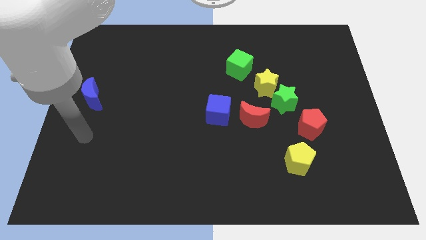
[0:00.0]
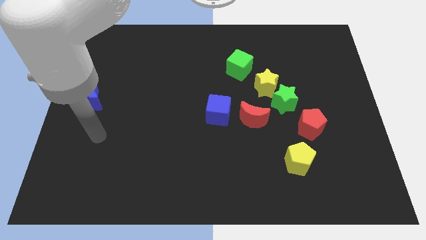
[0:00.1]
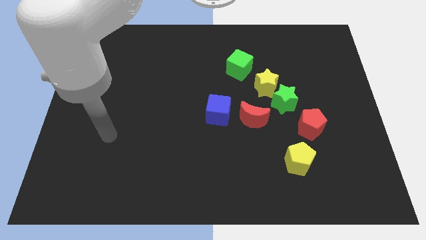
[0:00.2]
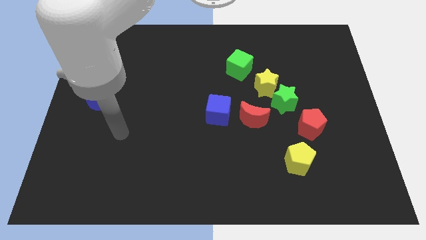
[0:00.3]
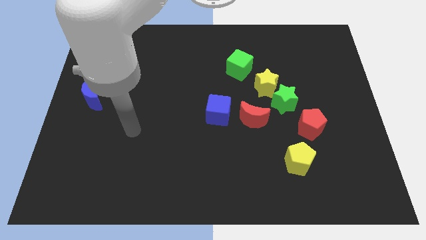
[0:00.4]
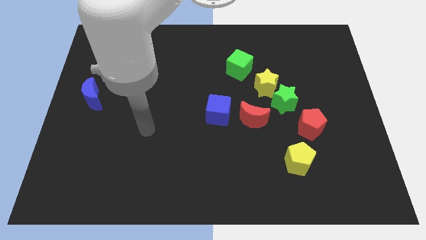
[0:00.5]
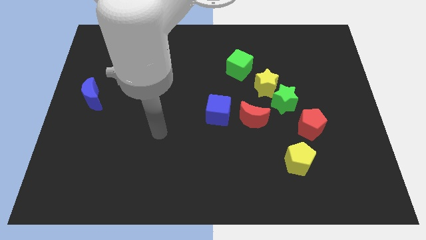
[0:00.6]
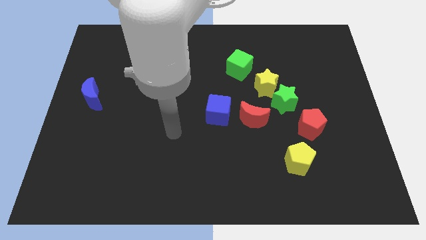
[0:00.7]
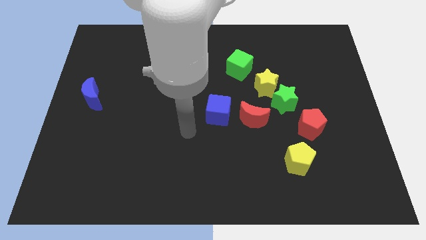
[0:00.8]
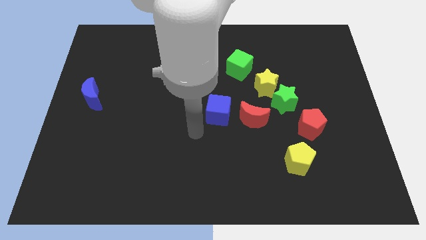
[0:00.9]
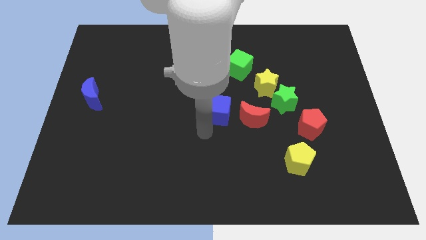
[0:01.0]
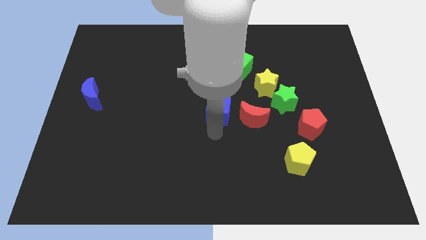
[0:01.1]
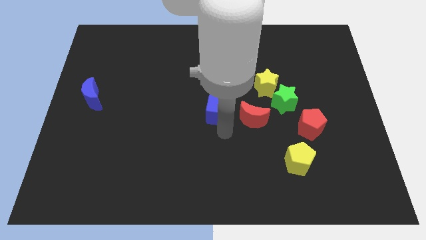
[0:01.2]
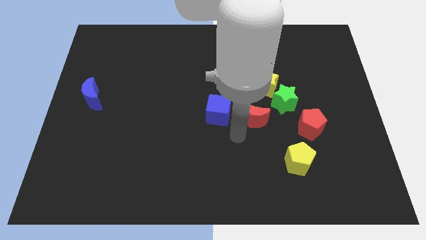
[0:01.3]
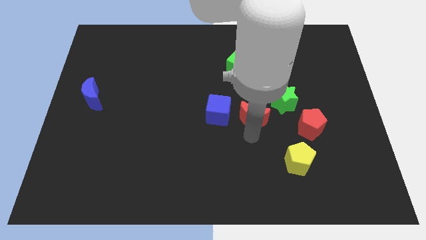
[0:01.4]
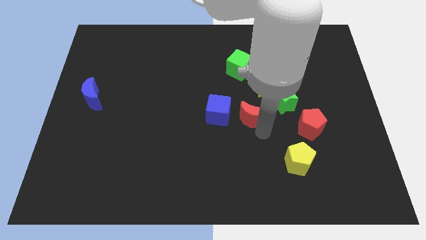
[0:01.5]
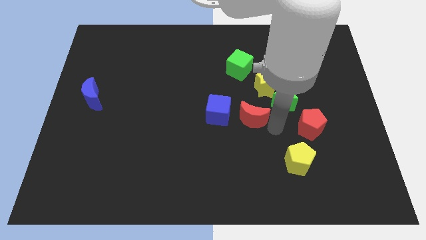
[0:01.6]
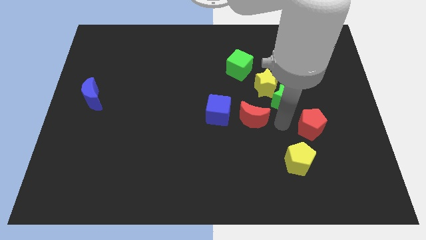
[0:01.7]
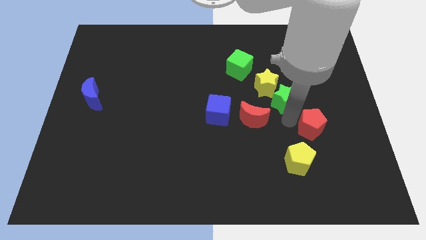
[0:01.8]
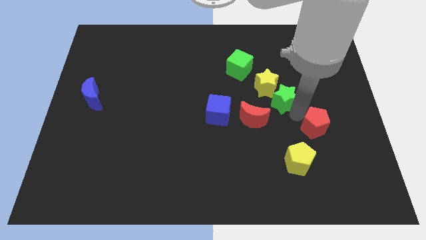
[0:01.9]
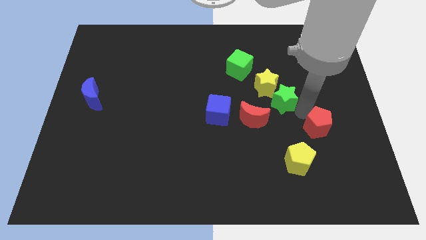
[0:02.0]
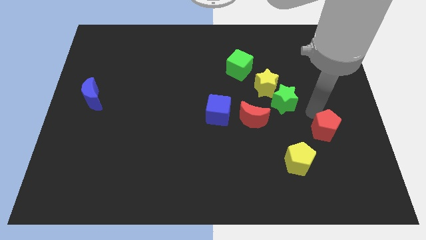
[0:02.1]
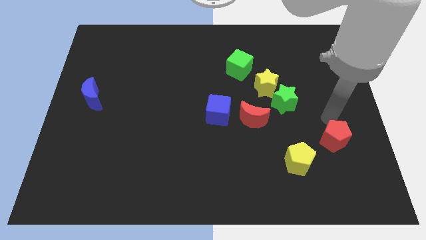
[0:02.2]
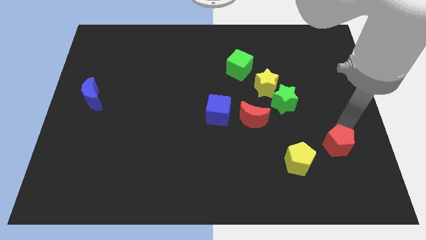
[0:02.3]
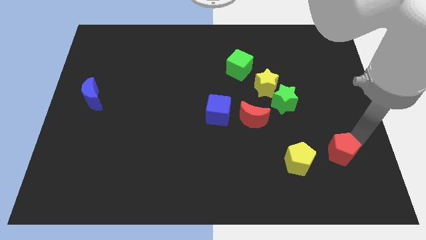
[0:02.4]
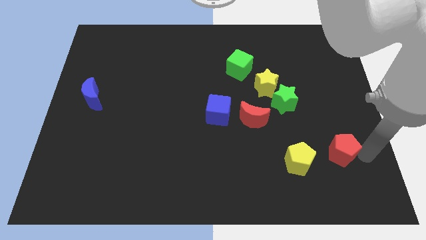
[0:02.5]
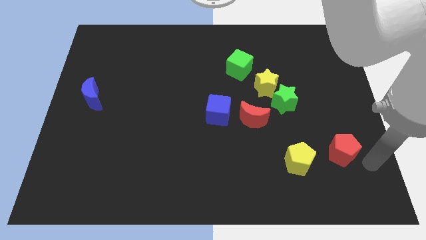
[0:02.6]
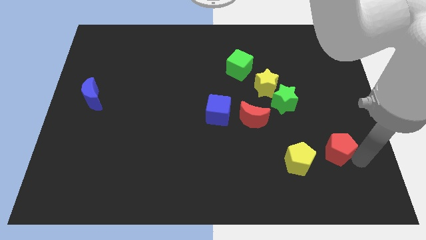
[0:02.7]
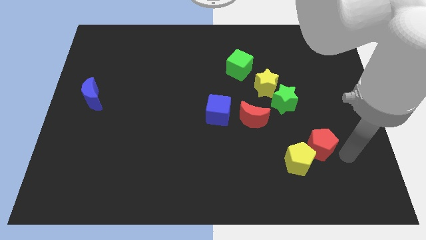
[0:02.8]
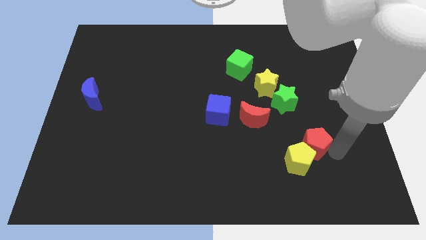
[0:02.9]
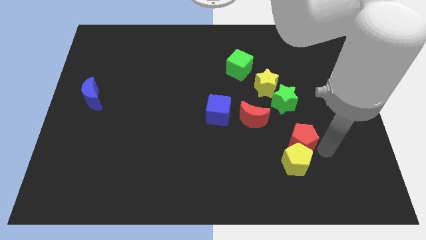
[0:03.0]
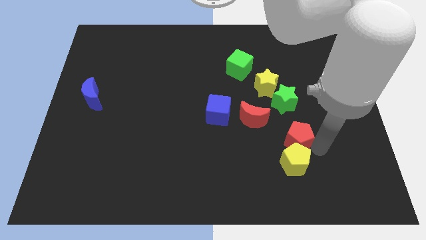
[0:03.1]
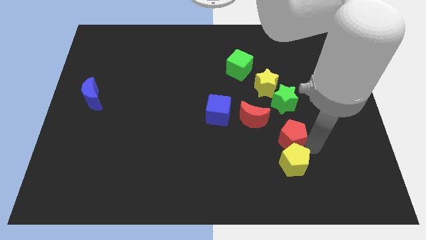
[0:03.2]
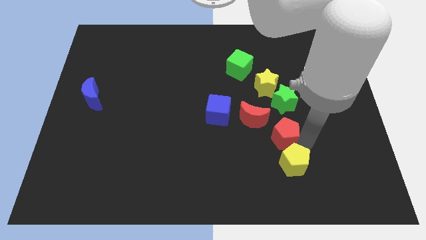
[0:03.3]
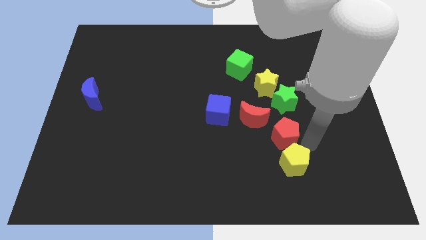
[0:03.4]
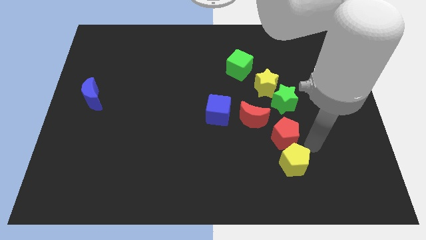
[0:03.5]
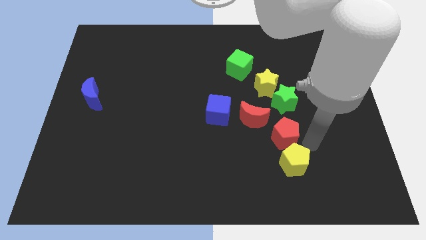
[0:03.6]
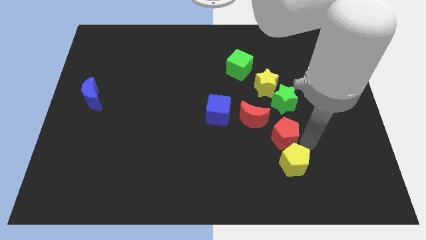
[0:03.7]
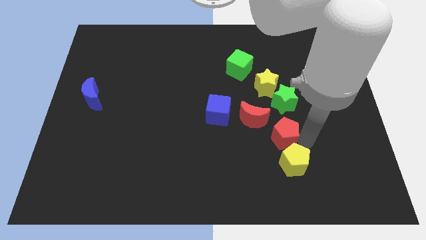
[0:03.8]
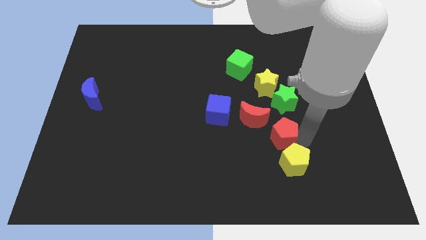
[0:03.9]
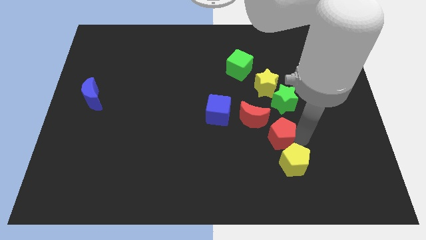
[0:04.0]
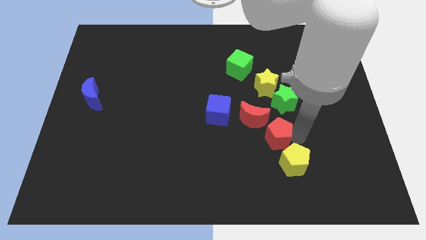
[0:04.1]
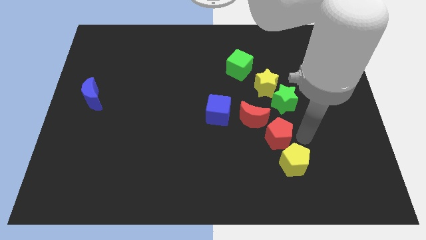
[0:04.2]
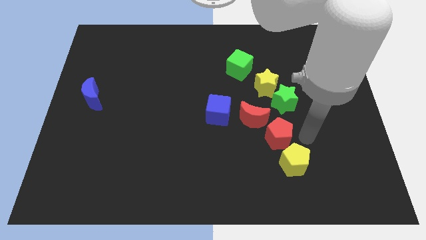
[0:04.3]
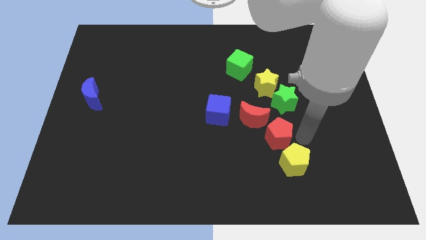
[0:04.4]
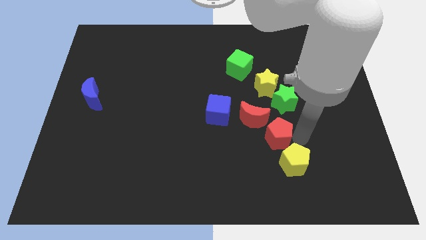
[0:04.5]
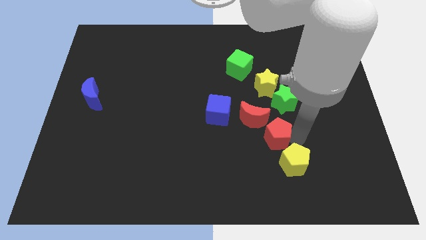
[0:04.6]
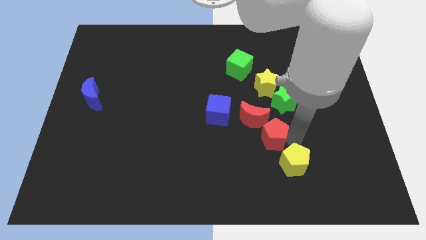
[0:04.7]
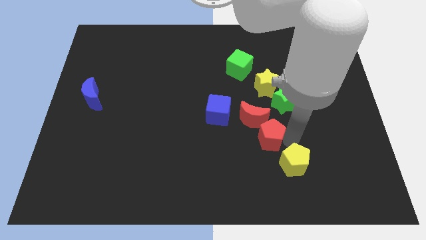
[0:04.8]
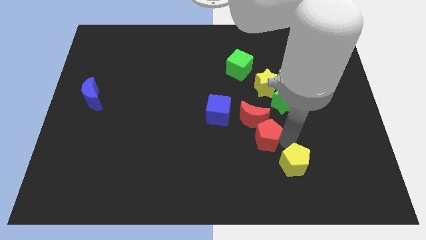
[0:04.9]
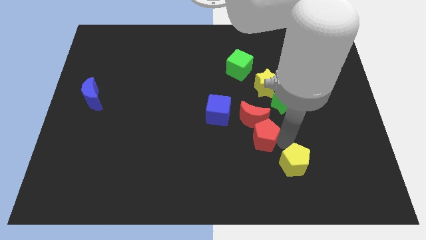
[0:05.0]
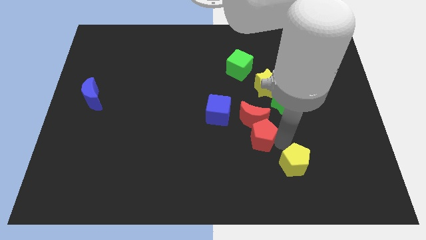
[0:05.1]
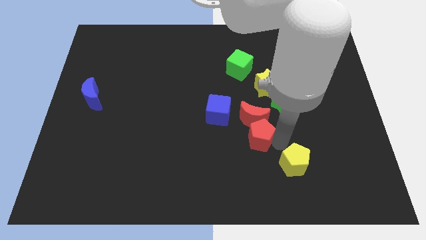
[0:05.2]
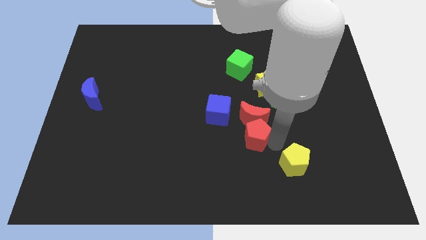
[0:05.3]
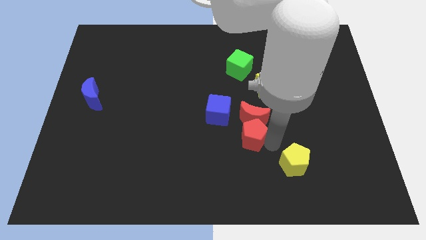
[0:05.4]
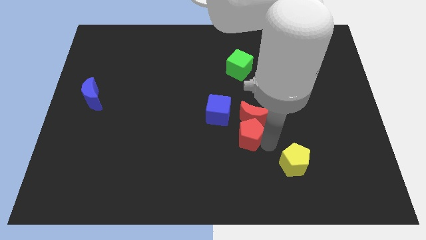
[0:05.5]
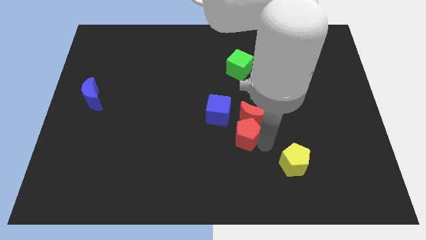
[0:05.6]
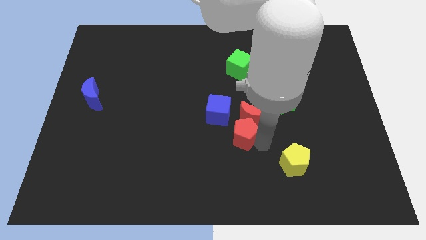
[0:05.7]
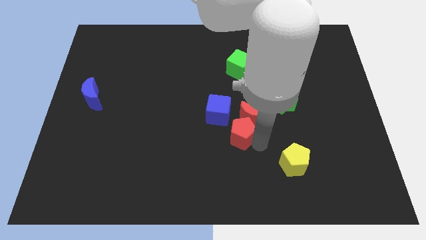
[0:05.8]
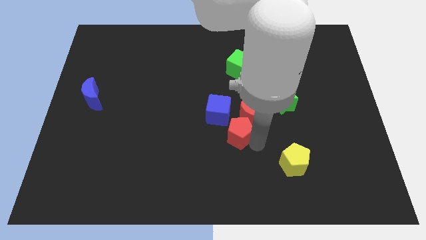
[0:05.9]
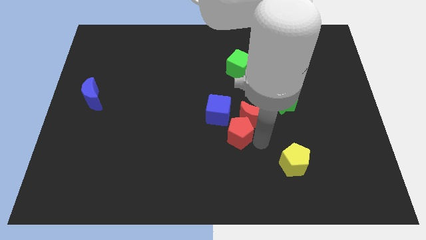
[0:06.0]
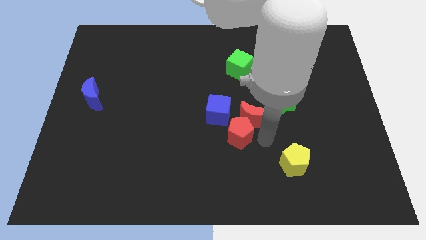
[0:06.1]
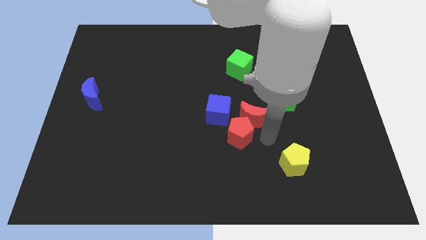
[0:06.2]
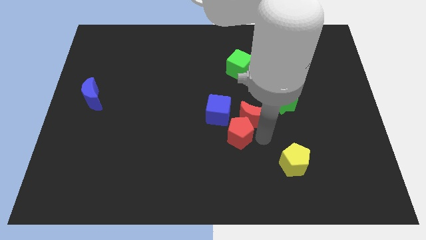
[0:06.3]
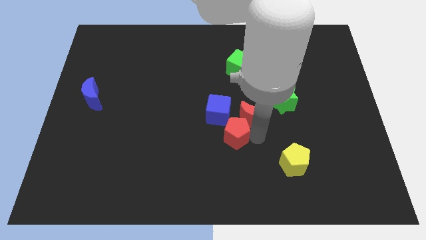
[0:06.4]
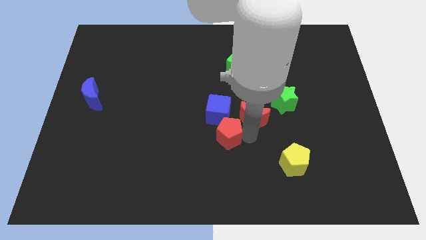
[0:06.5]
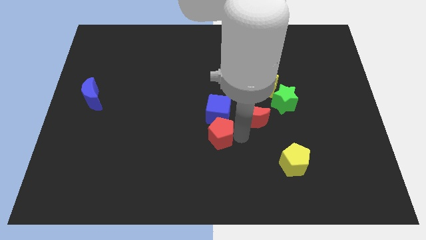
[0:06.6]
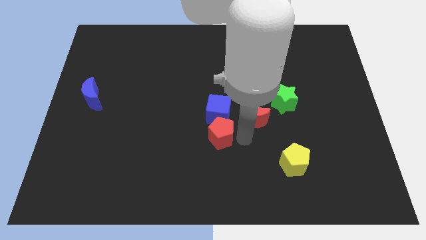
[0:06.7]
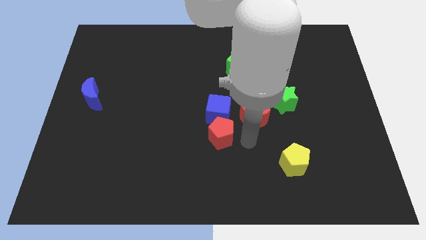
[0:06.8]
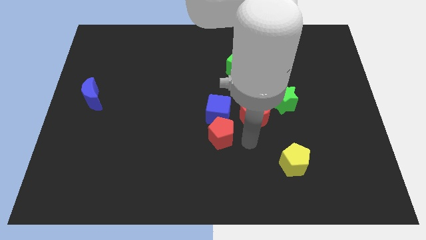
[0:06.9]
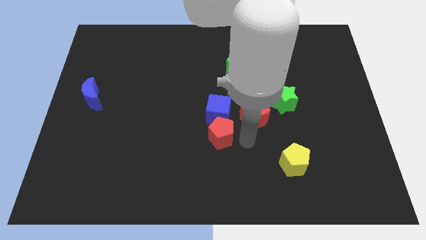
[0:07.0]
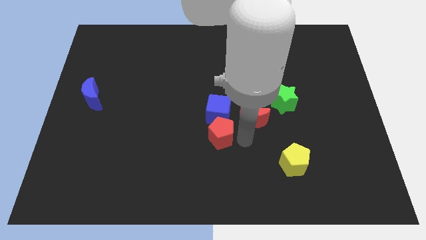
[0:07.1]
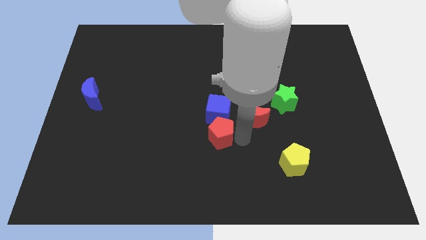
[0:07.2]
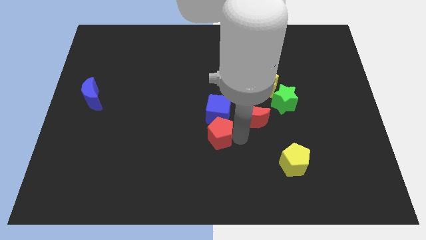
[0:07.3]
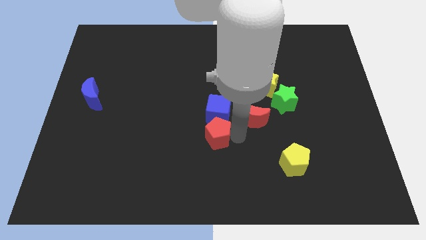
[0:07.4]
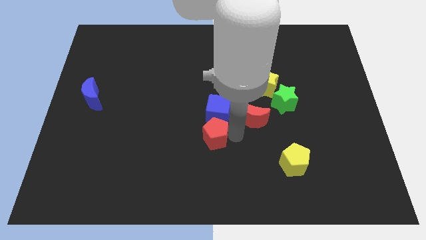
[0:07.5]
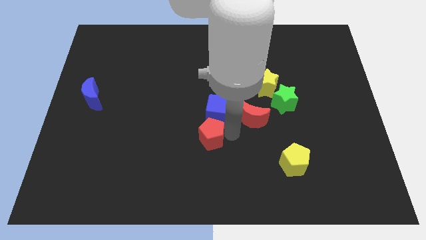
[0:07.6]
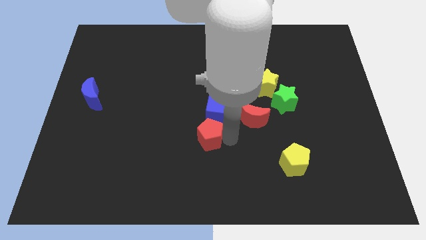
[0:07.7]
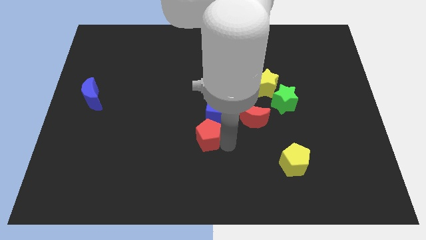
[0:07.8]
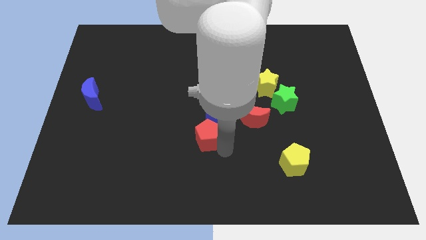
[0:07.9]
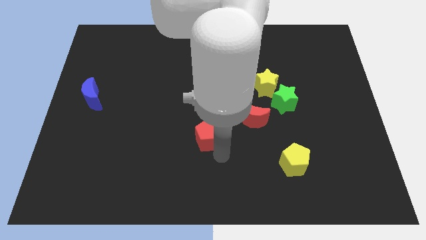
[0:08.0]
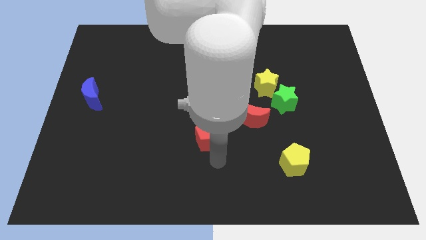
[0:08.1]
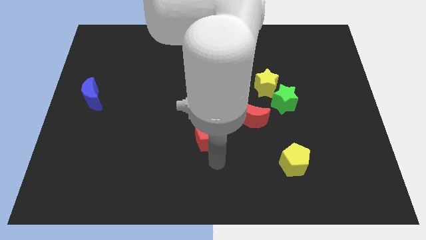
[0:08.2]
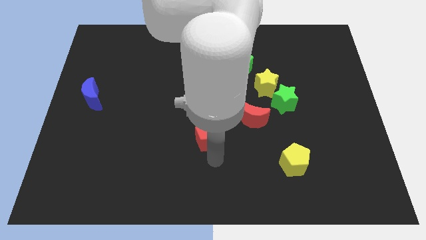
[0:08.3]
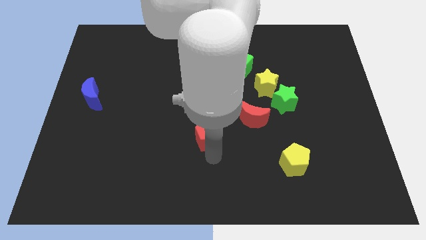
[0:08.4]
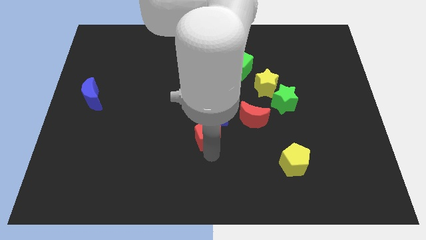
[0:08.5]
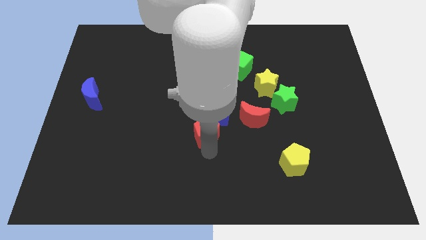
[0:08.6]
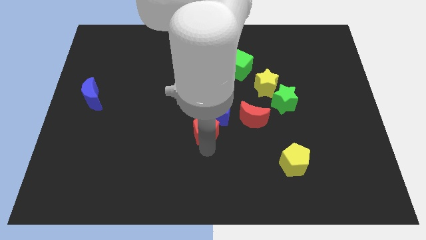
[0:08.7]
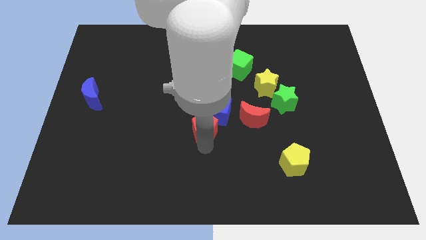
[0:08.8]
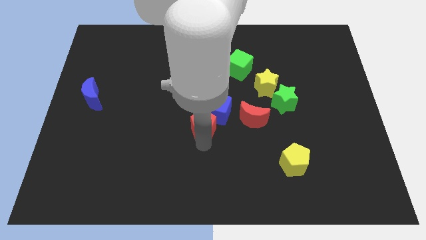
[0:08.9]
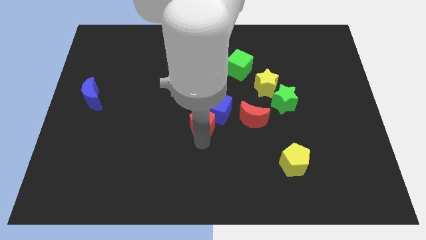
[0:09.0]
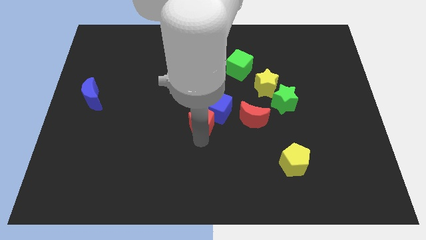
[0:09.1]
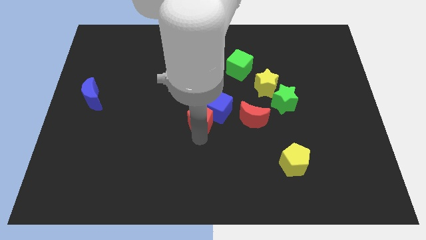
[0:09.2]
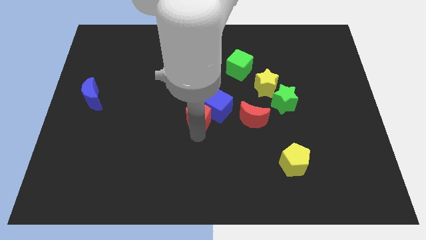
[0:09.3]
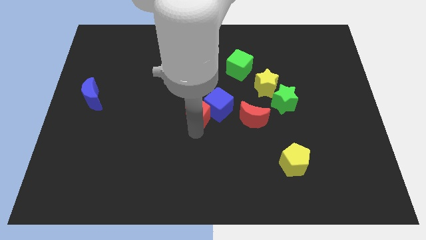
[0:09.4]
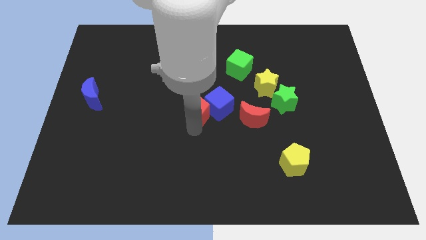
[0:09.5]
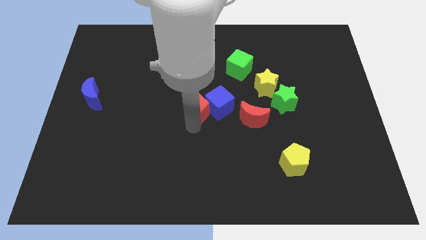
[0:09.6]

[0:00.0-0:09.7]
put the red pentagon diagonally up and to the left of the blue cube
